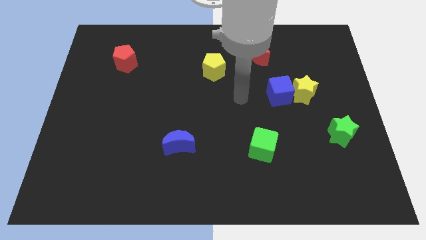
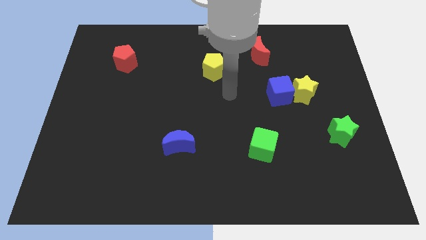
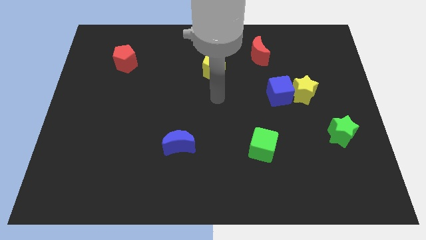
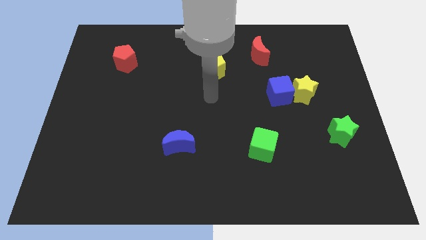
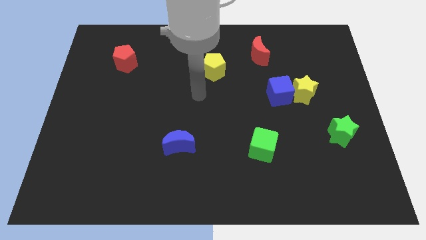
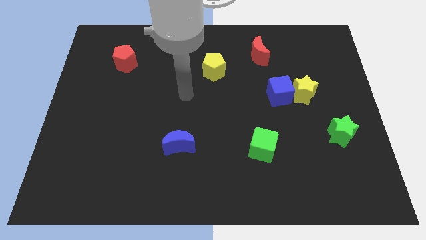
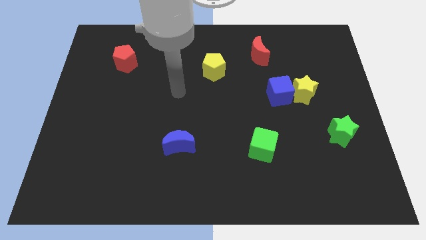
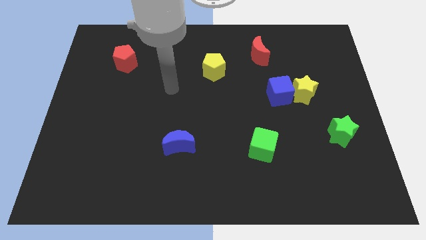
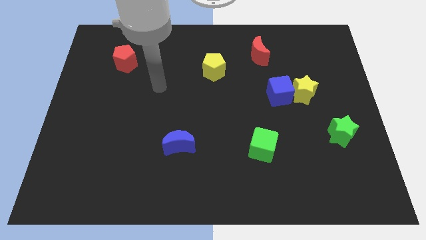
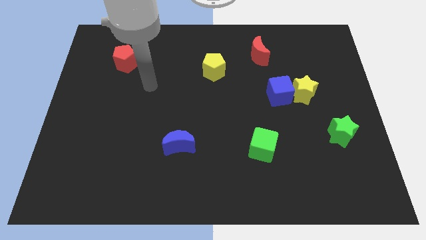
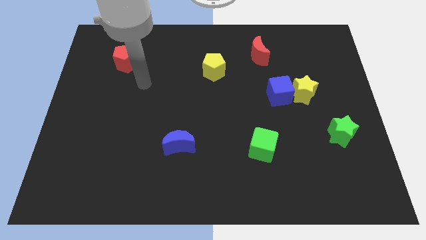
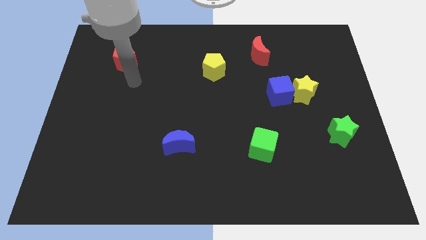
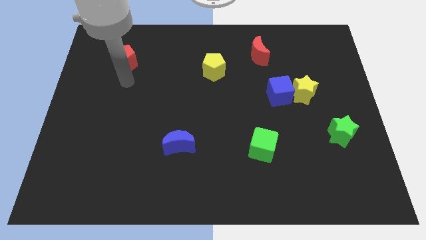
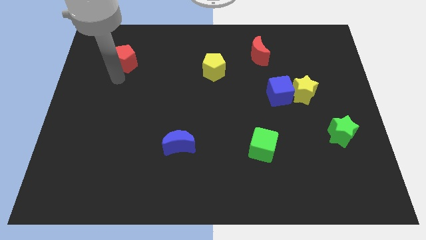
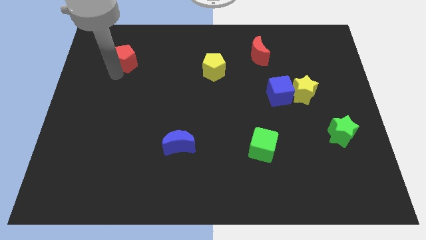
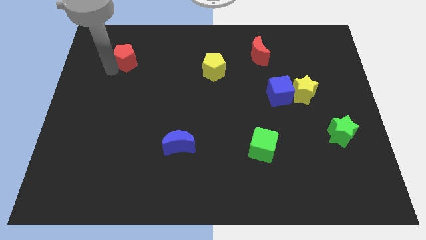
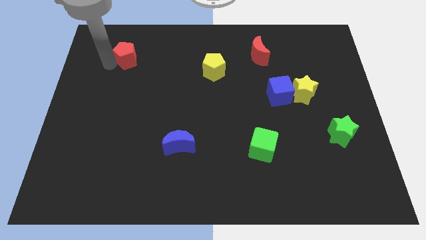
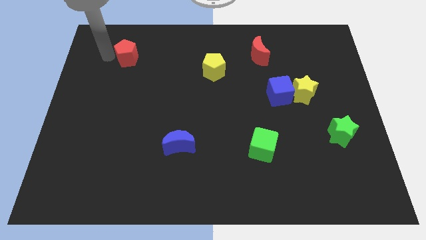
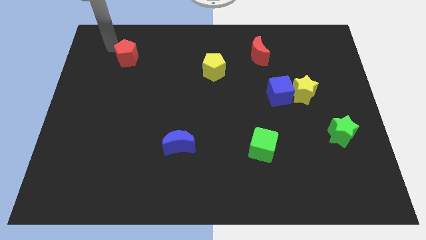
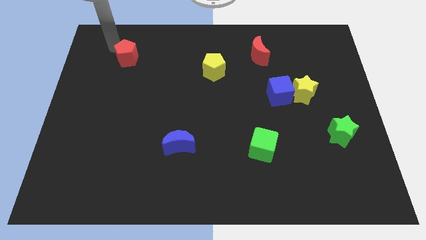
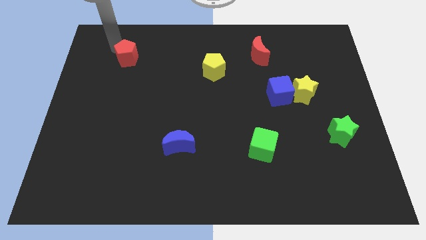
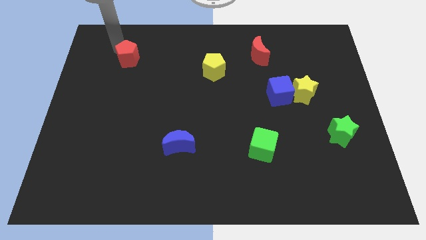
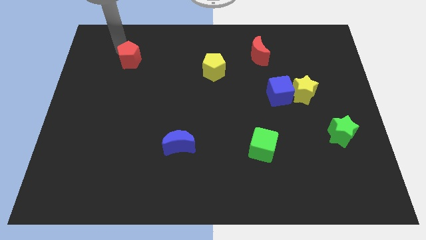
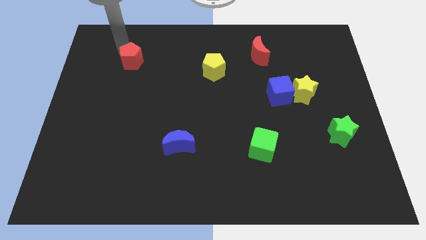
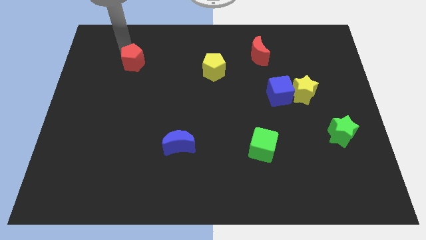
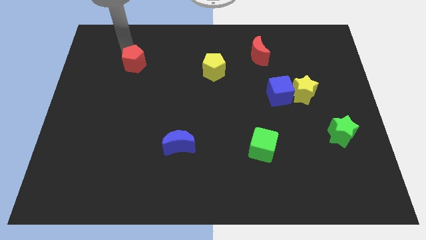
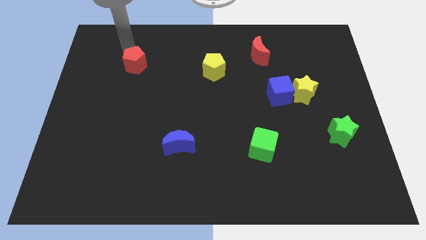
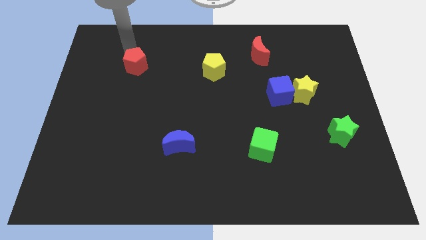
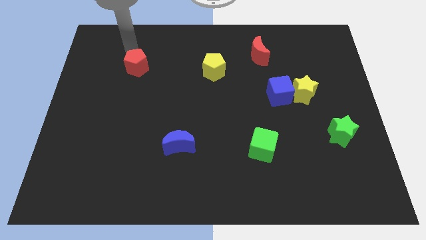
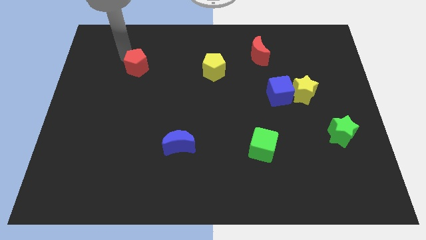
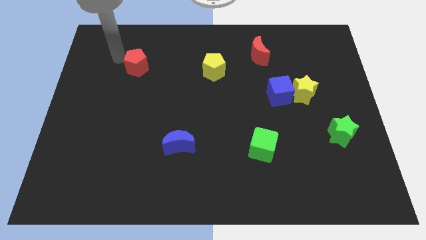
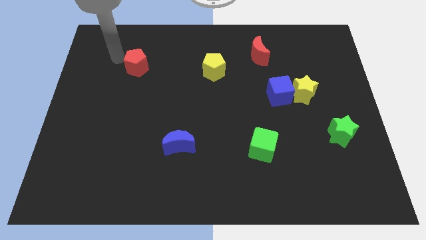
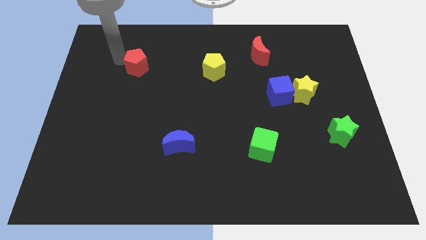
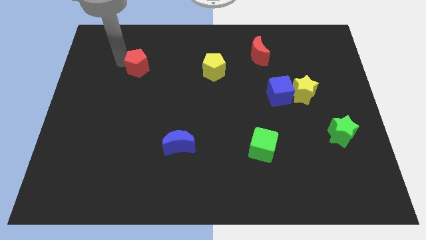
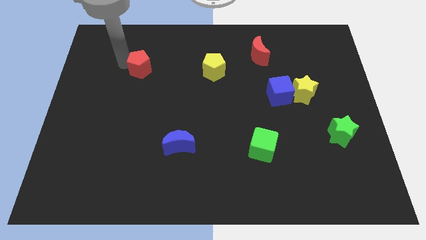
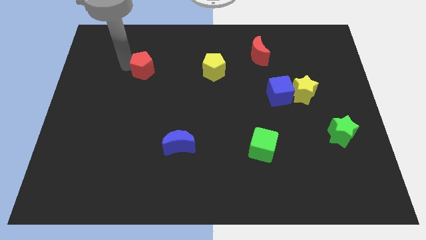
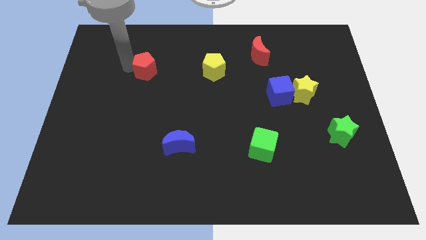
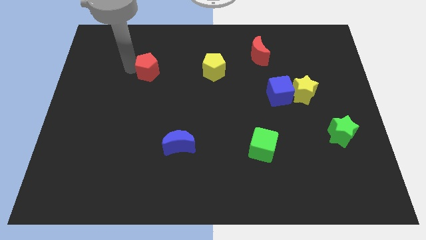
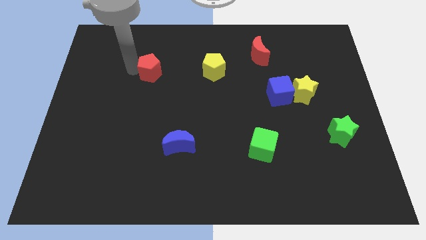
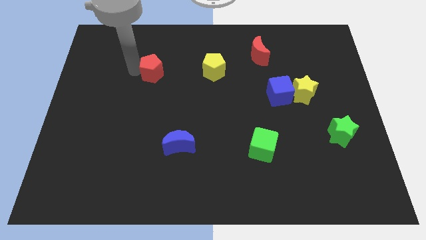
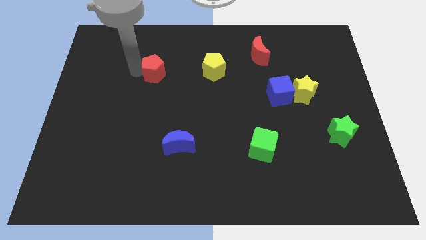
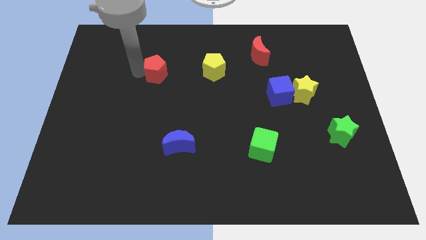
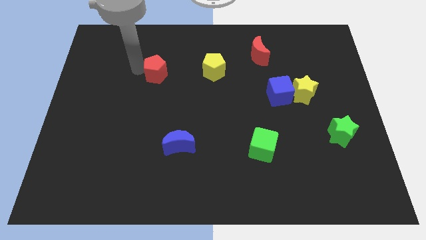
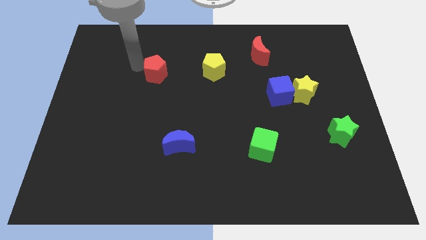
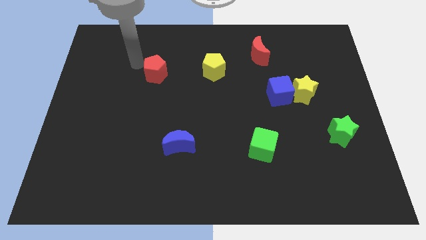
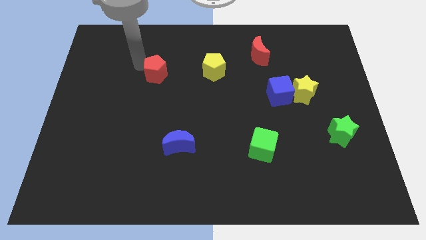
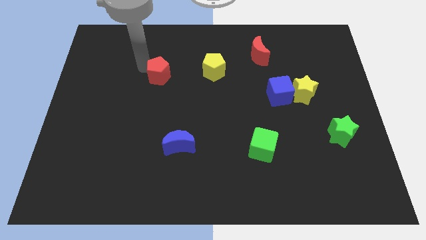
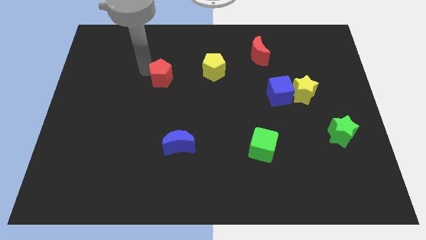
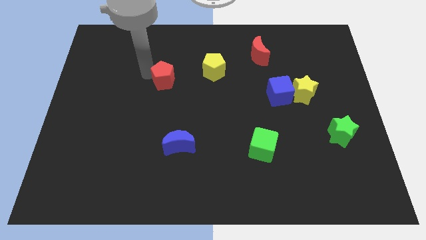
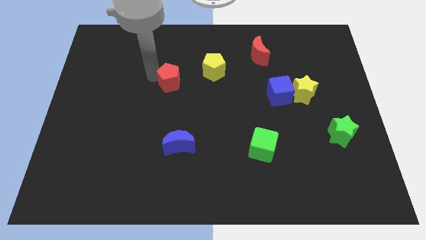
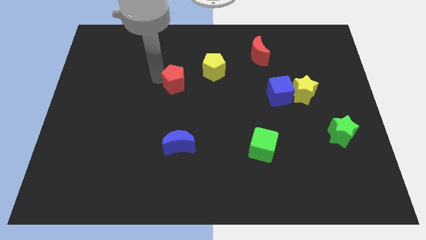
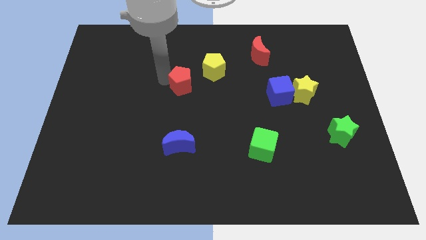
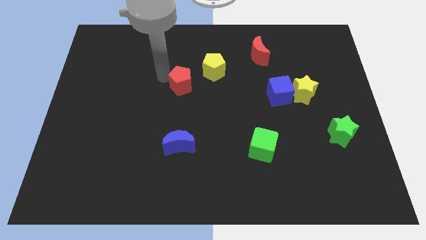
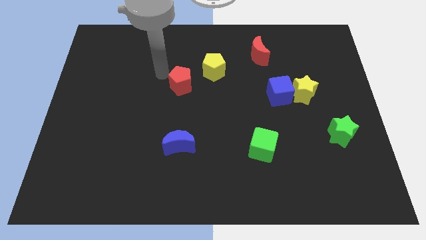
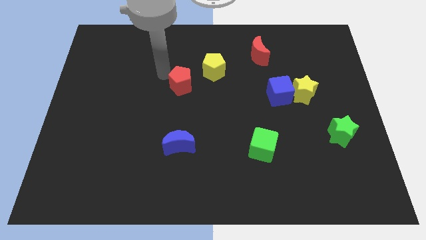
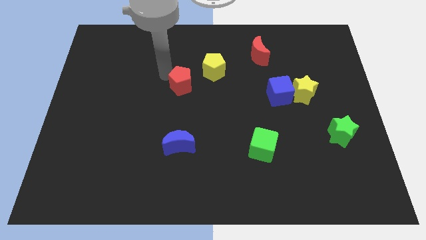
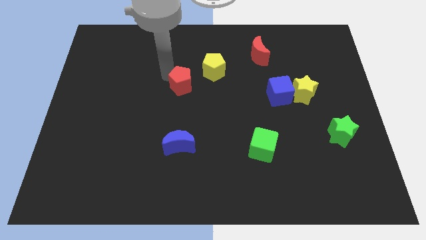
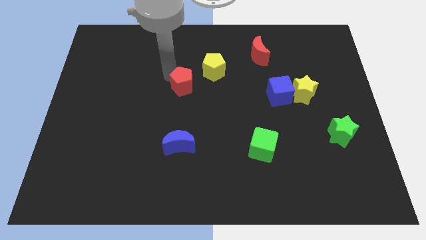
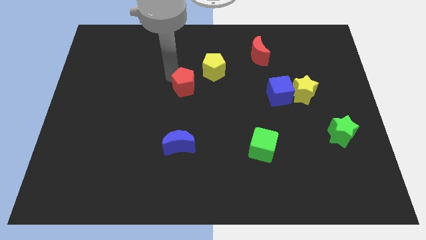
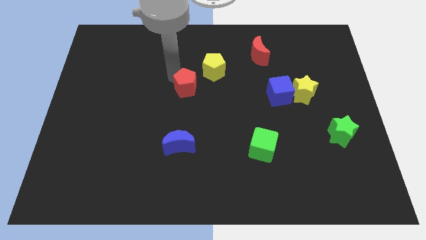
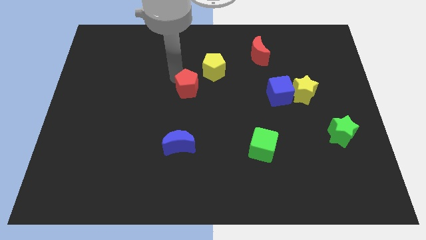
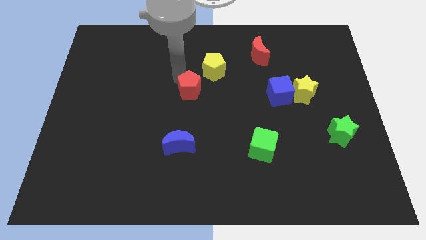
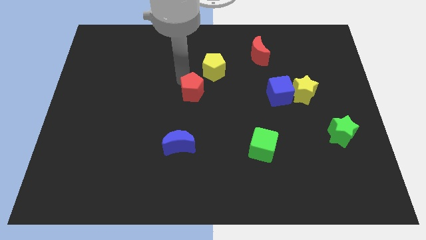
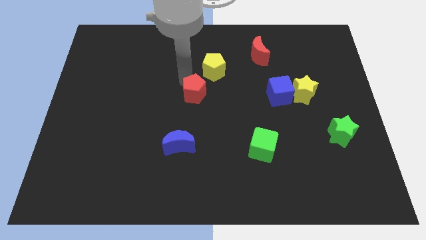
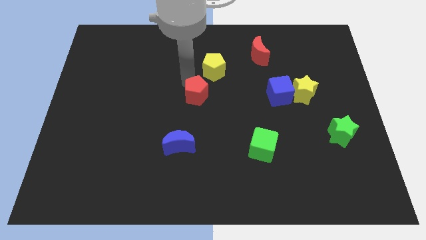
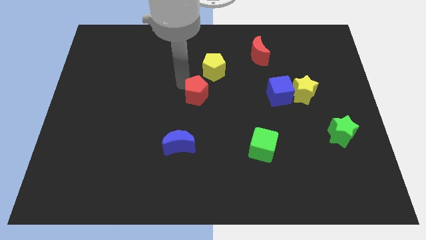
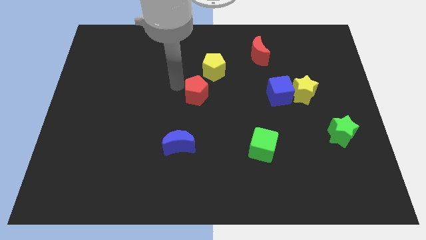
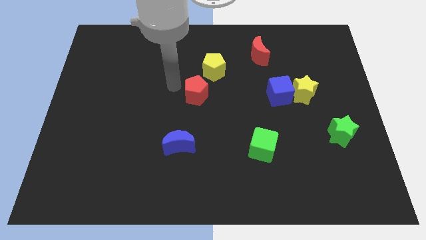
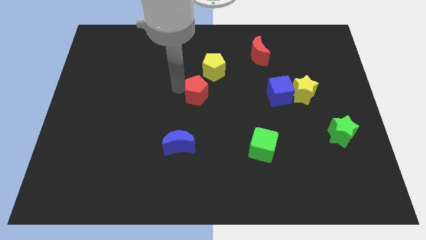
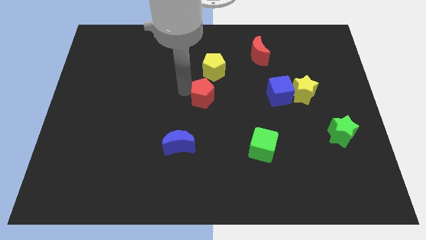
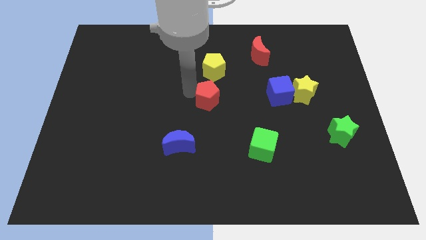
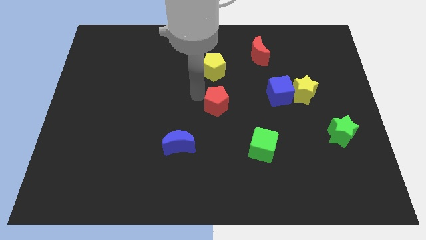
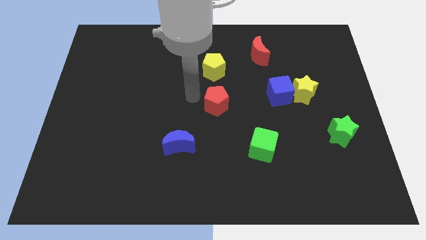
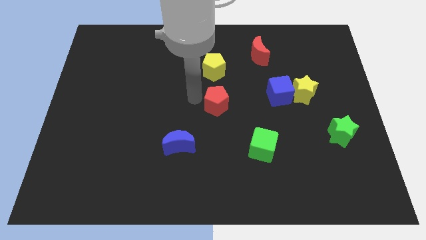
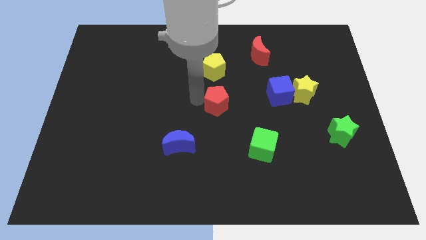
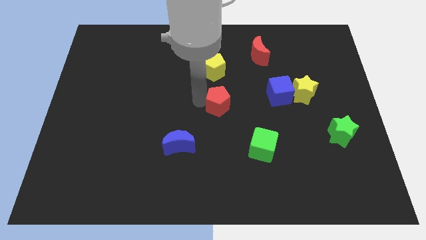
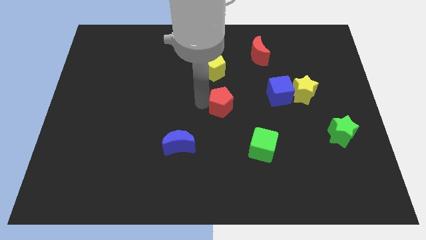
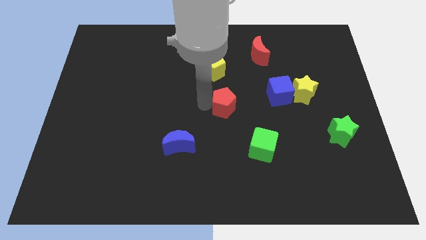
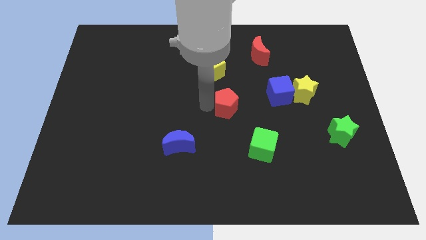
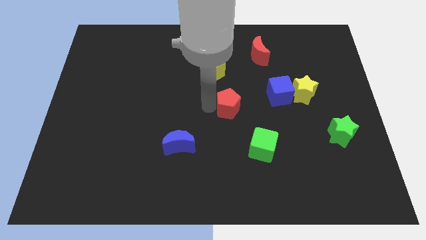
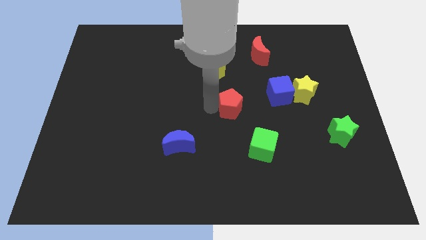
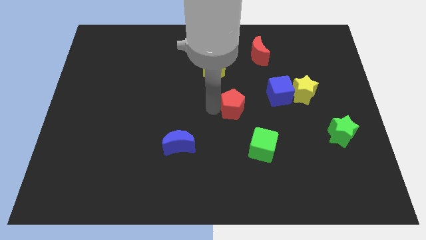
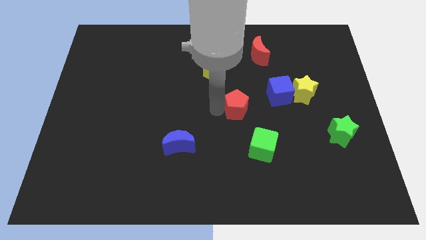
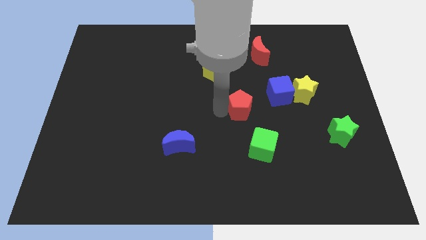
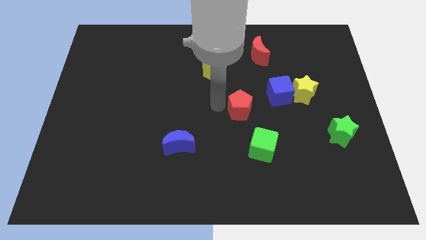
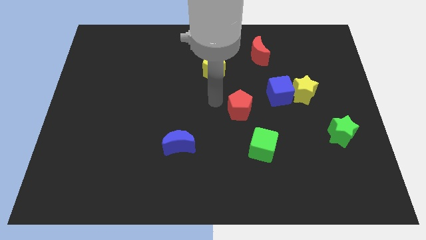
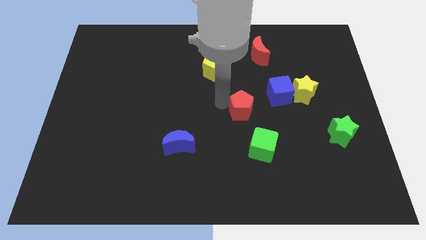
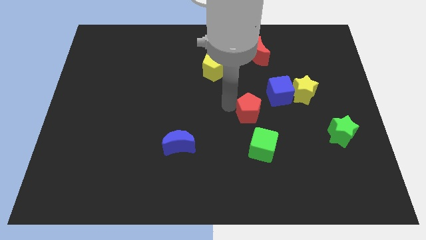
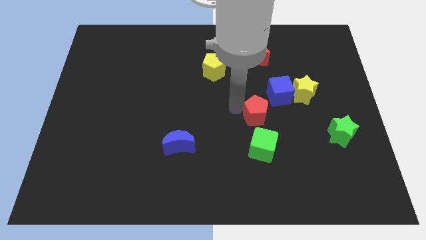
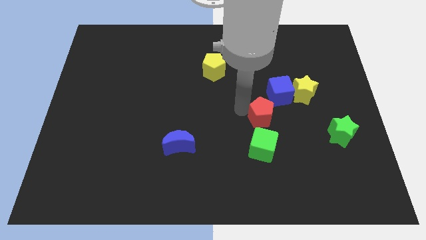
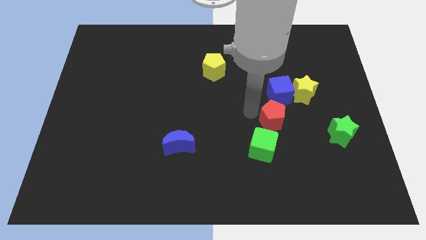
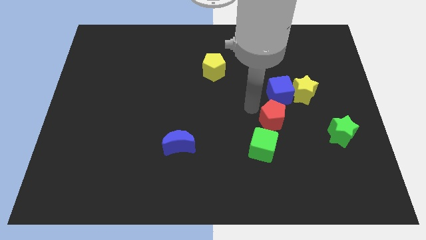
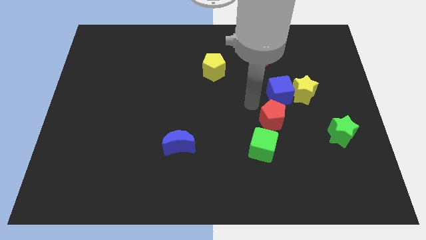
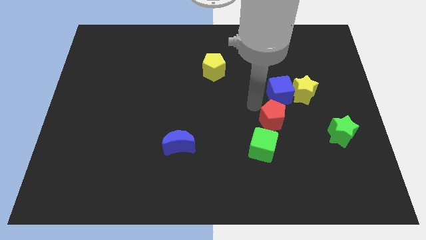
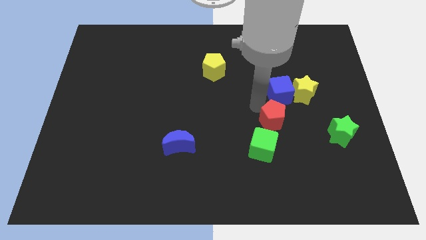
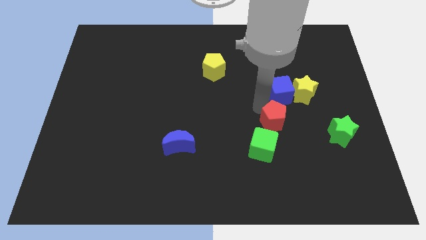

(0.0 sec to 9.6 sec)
move the red pentagon to the left side of the green star
